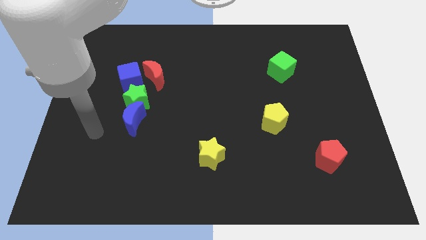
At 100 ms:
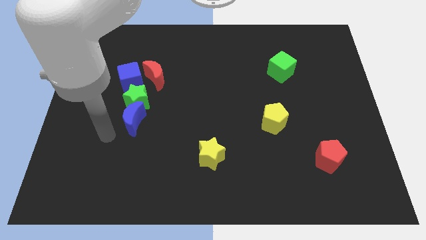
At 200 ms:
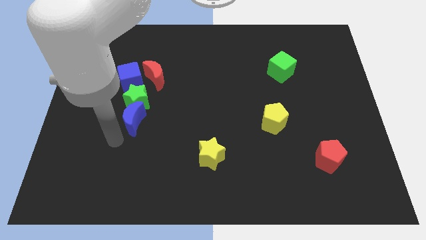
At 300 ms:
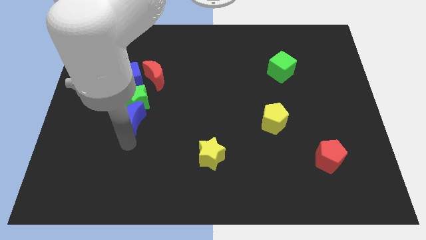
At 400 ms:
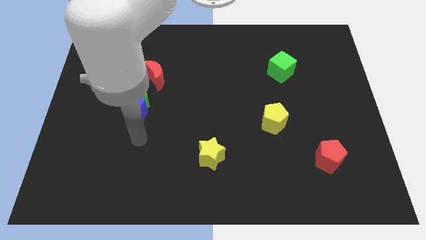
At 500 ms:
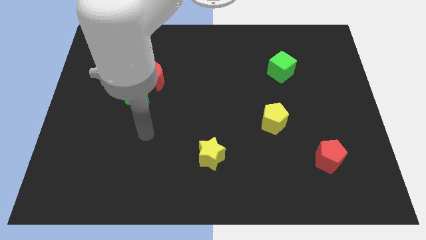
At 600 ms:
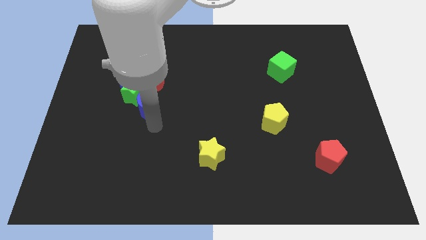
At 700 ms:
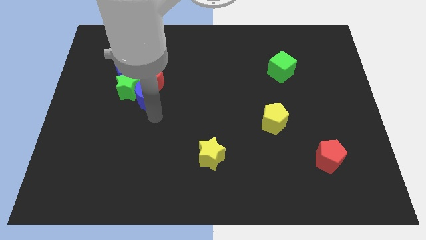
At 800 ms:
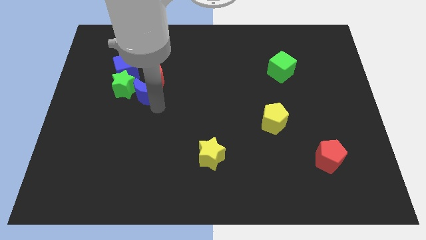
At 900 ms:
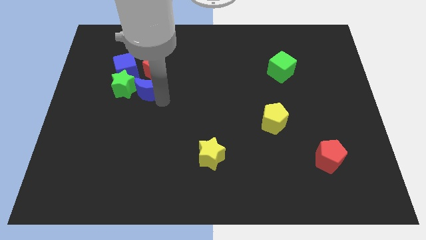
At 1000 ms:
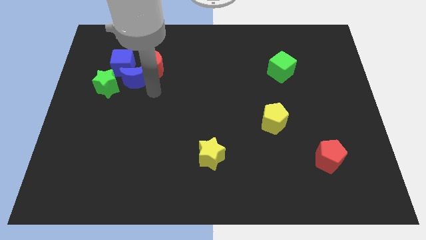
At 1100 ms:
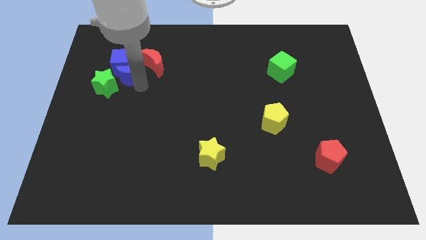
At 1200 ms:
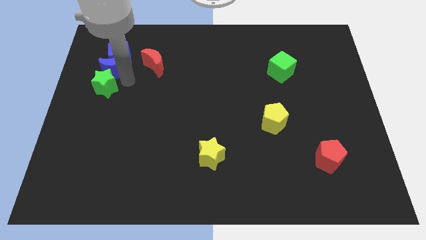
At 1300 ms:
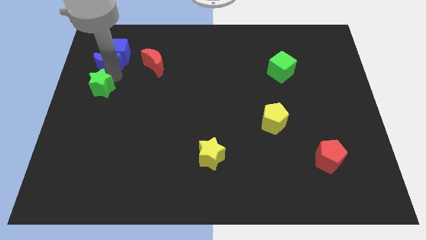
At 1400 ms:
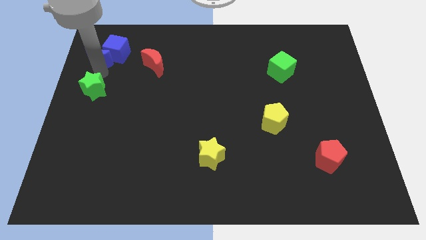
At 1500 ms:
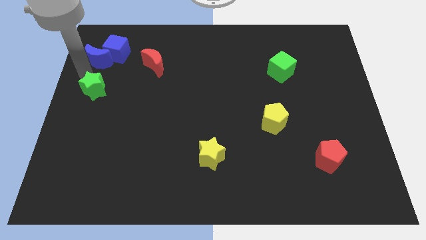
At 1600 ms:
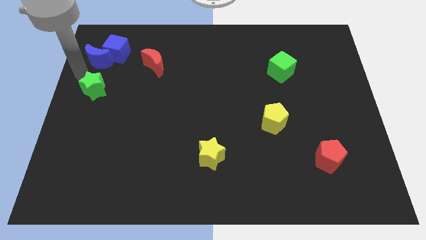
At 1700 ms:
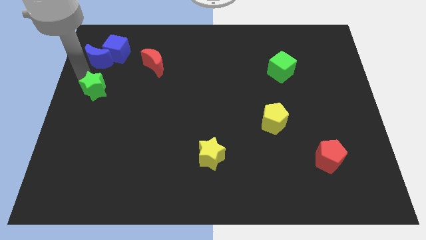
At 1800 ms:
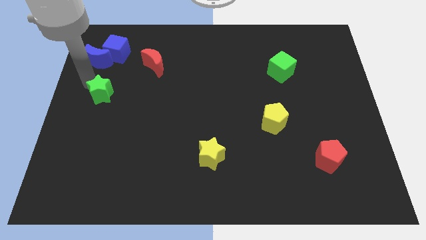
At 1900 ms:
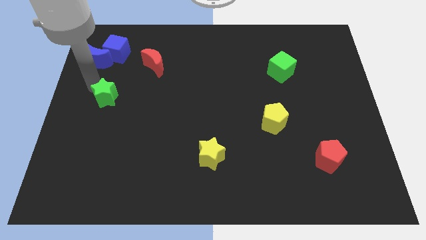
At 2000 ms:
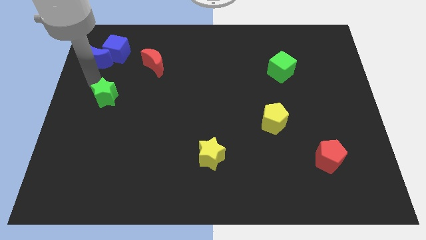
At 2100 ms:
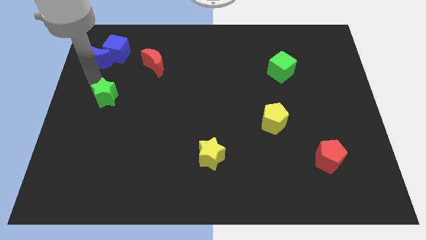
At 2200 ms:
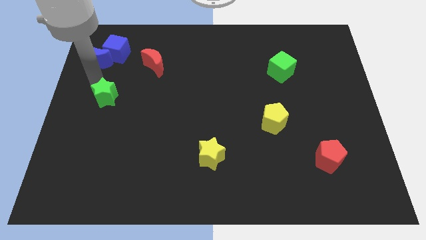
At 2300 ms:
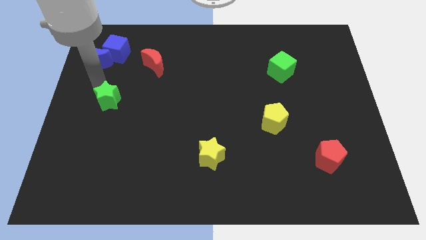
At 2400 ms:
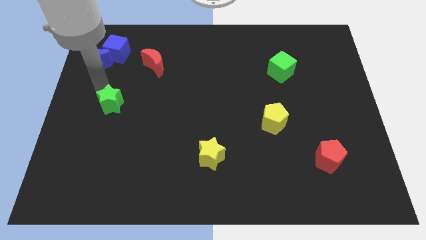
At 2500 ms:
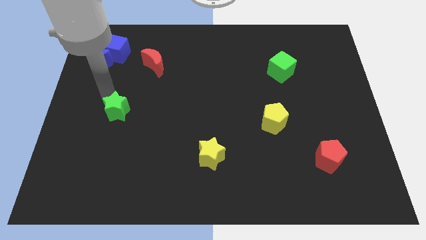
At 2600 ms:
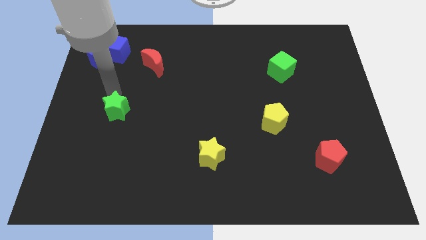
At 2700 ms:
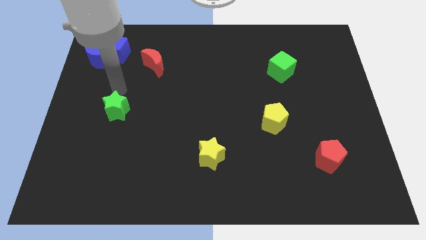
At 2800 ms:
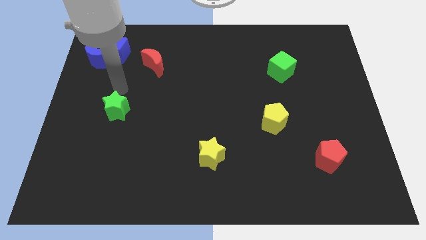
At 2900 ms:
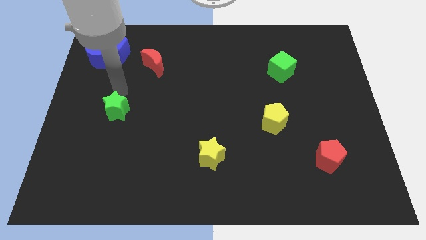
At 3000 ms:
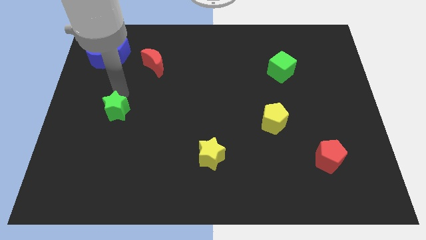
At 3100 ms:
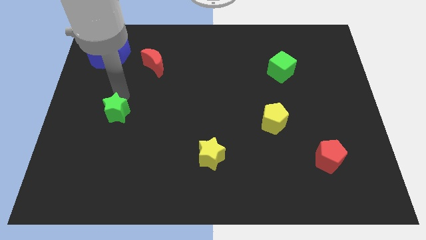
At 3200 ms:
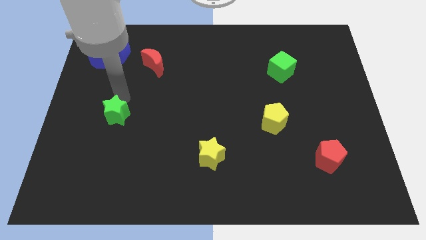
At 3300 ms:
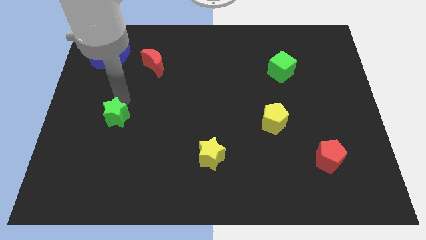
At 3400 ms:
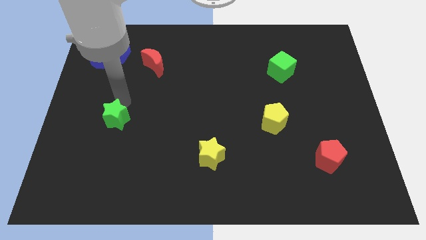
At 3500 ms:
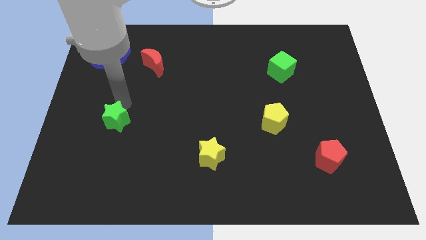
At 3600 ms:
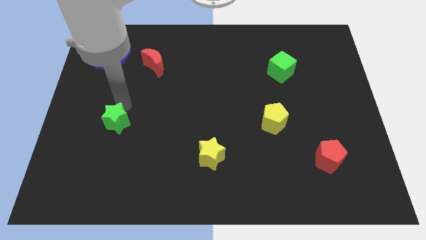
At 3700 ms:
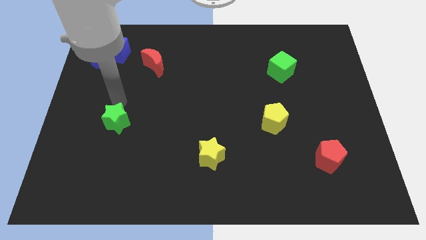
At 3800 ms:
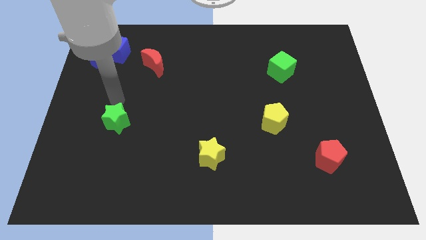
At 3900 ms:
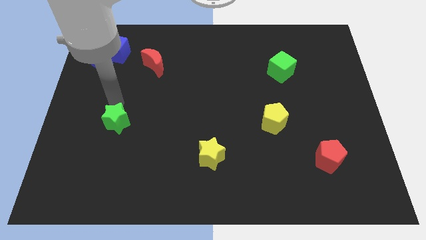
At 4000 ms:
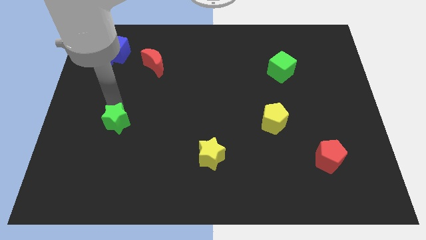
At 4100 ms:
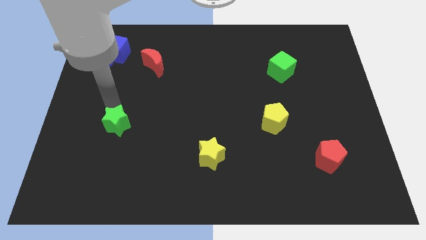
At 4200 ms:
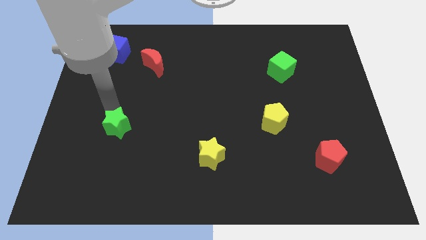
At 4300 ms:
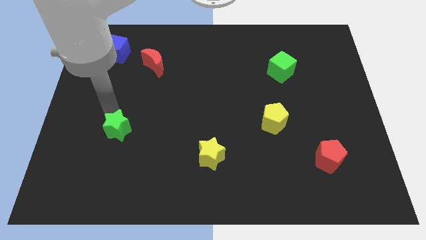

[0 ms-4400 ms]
slightly move the green star downwards

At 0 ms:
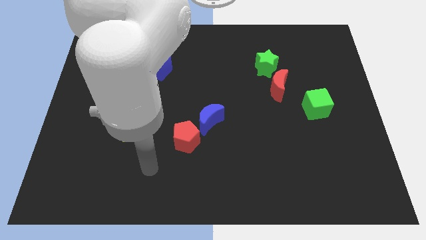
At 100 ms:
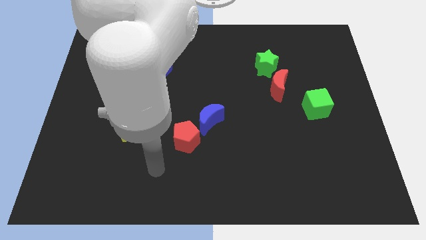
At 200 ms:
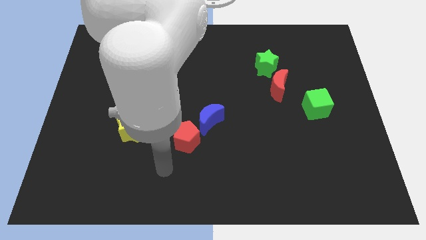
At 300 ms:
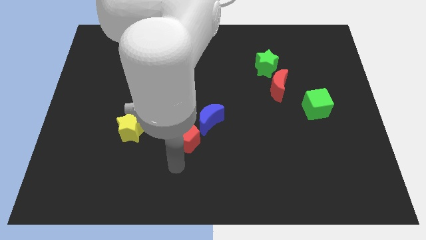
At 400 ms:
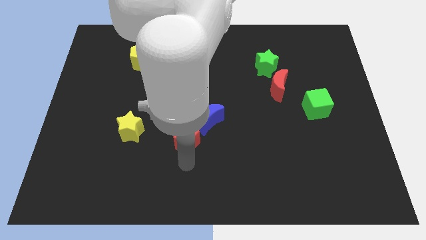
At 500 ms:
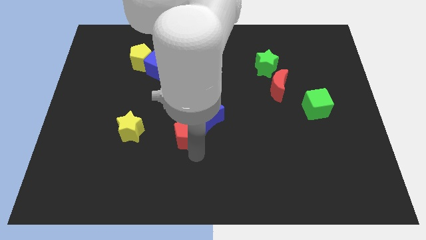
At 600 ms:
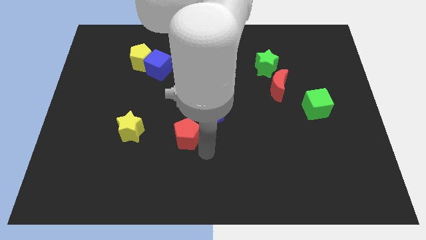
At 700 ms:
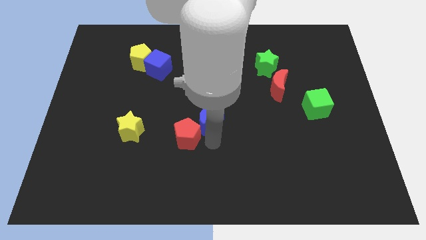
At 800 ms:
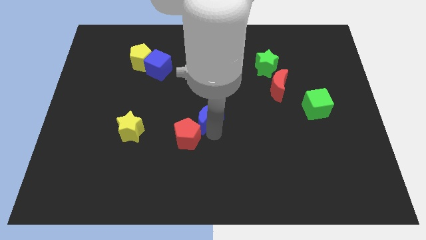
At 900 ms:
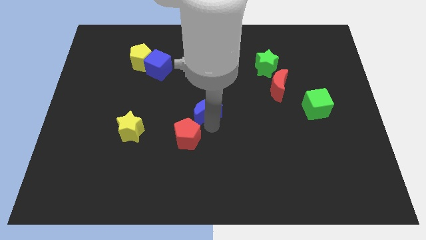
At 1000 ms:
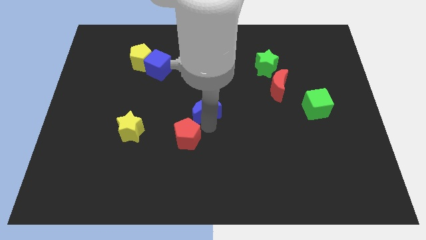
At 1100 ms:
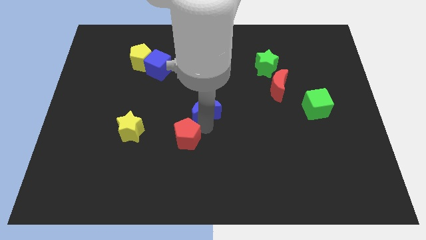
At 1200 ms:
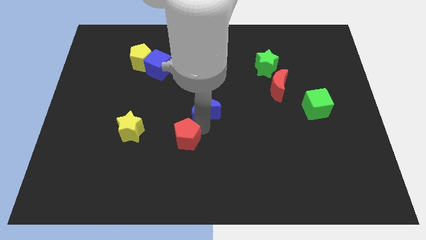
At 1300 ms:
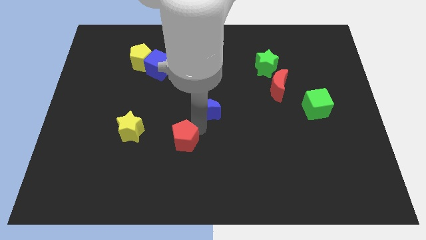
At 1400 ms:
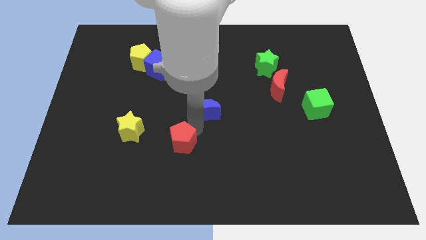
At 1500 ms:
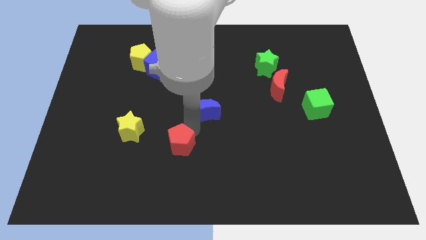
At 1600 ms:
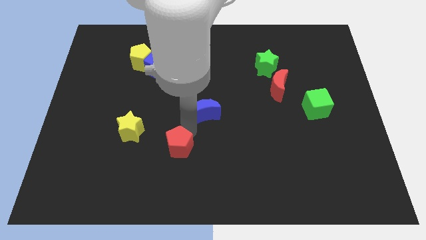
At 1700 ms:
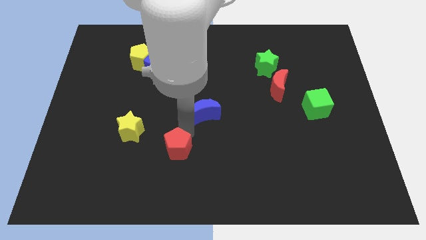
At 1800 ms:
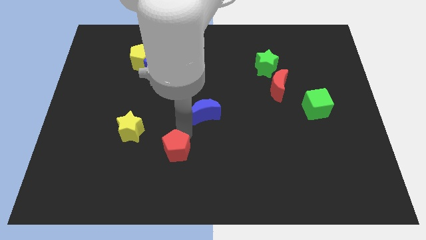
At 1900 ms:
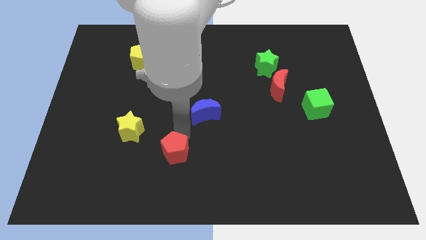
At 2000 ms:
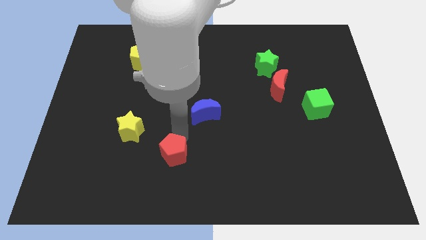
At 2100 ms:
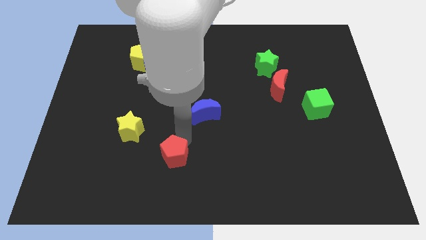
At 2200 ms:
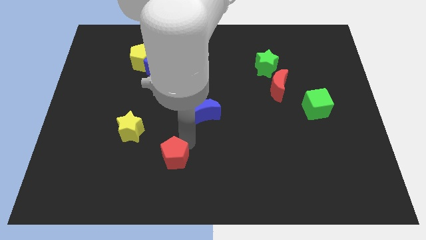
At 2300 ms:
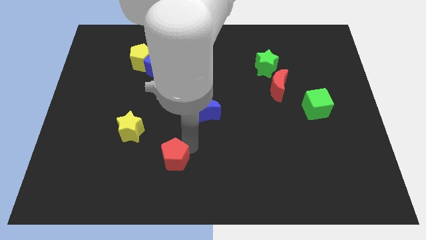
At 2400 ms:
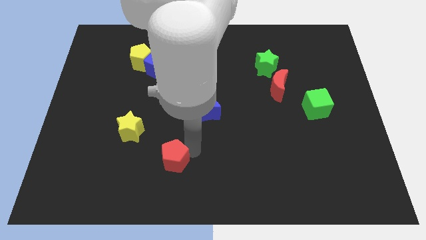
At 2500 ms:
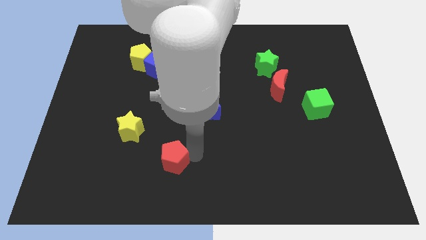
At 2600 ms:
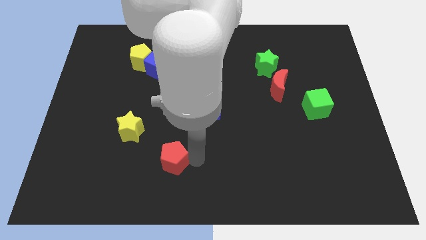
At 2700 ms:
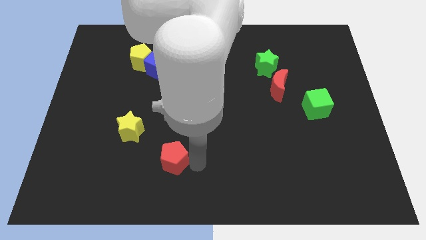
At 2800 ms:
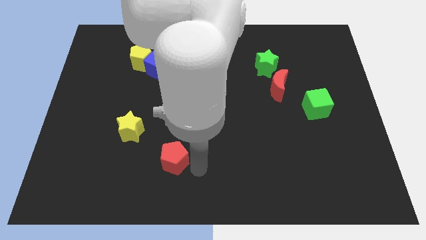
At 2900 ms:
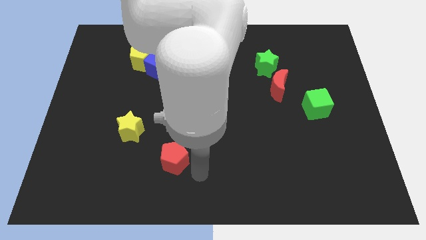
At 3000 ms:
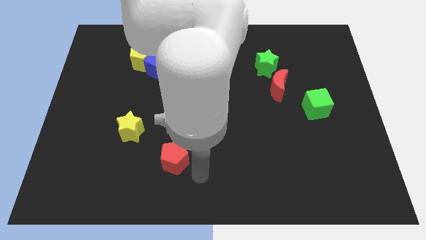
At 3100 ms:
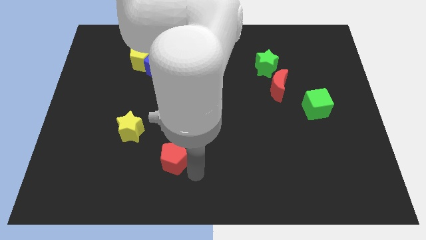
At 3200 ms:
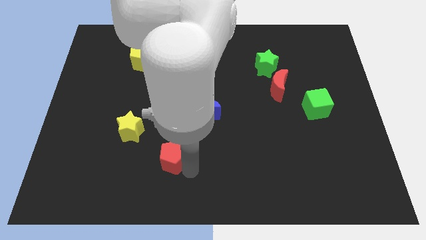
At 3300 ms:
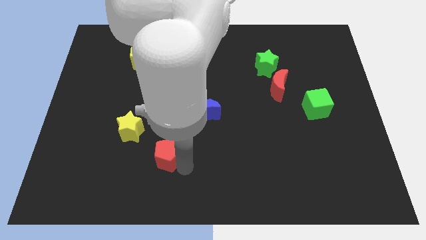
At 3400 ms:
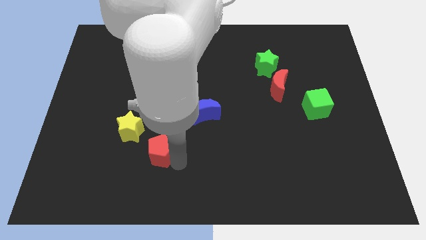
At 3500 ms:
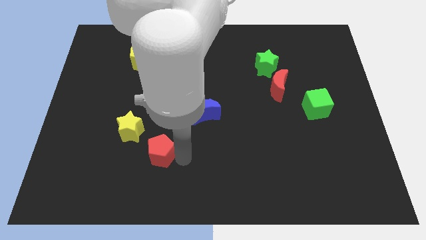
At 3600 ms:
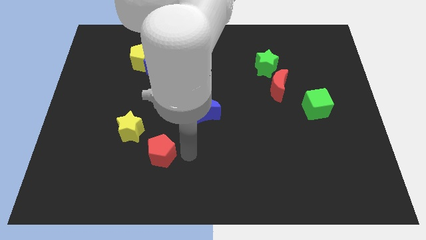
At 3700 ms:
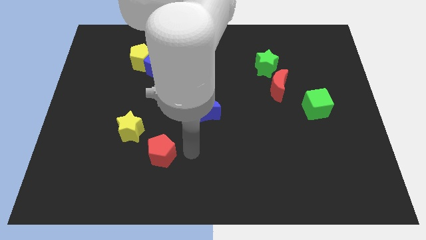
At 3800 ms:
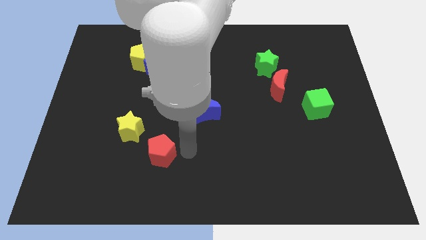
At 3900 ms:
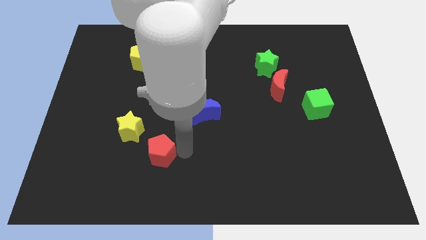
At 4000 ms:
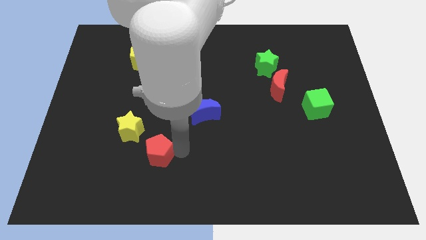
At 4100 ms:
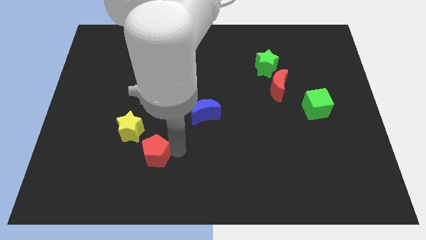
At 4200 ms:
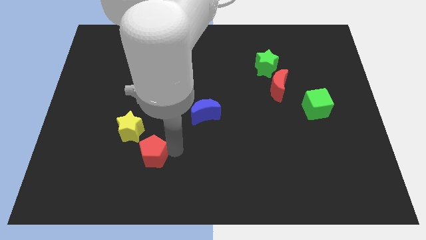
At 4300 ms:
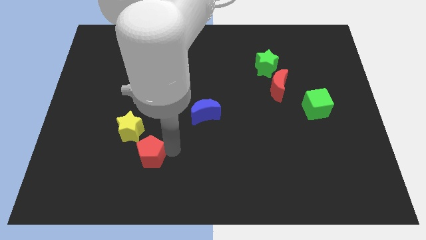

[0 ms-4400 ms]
push the red pentagon to the left a bit
